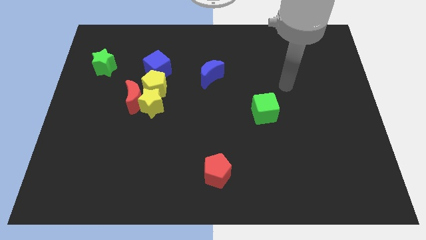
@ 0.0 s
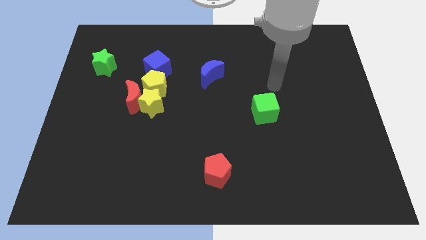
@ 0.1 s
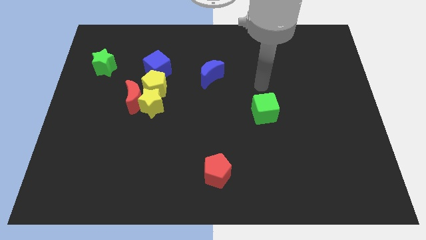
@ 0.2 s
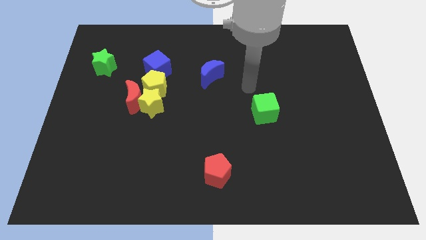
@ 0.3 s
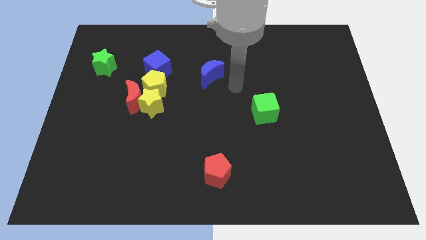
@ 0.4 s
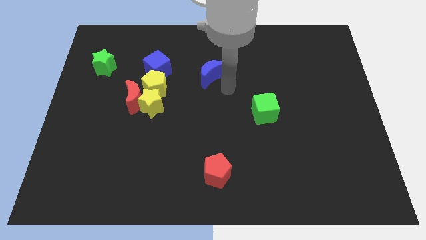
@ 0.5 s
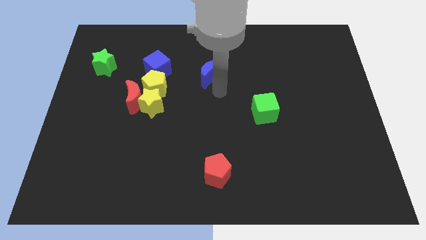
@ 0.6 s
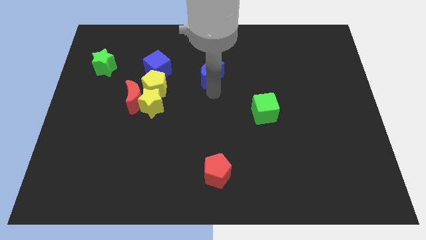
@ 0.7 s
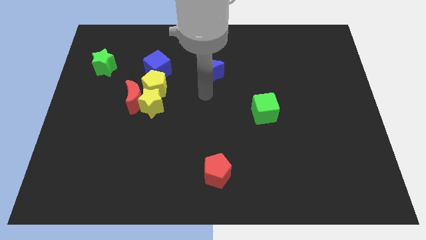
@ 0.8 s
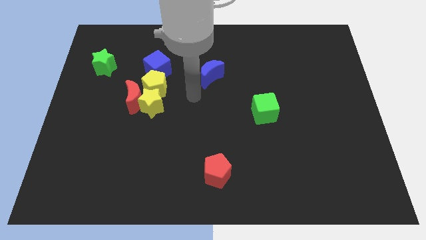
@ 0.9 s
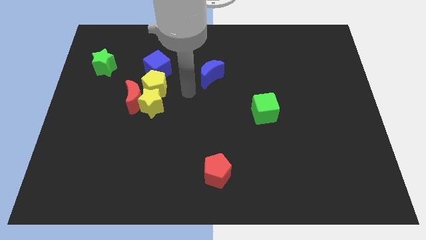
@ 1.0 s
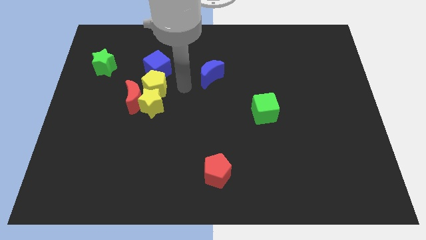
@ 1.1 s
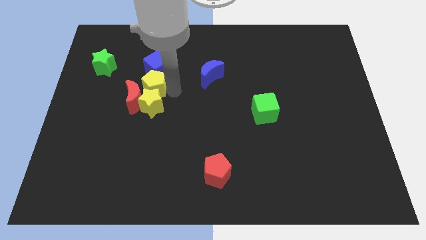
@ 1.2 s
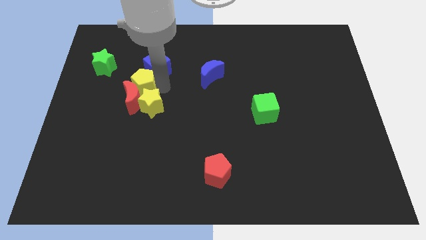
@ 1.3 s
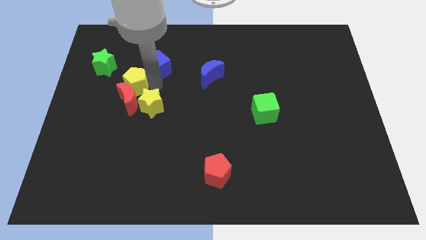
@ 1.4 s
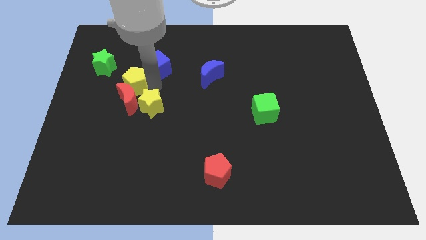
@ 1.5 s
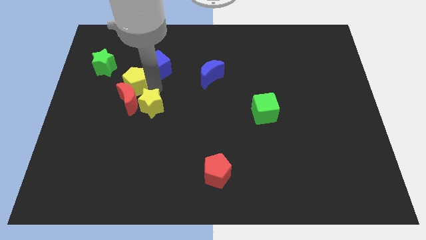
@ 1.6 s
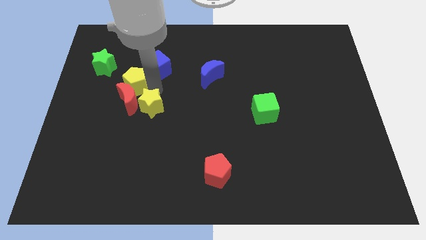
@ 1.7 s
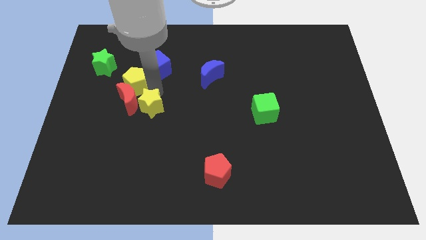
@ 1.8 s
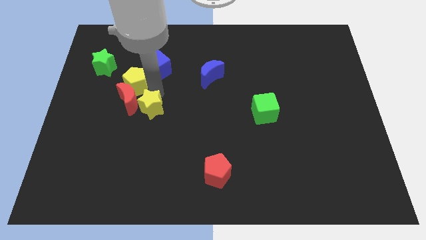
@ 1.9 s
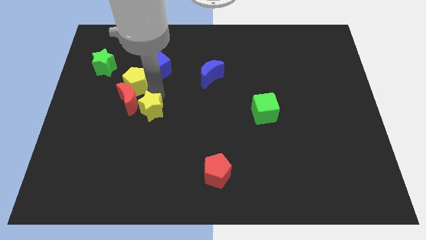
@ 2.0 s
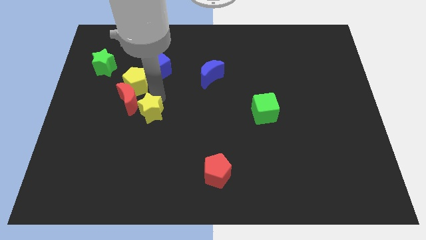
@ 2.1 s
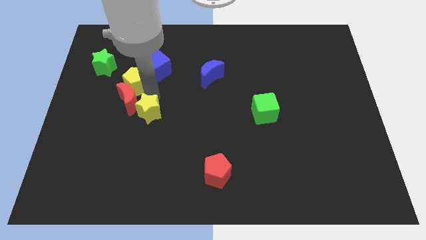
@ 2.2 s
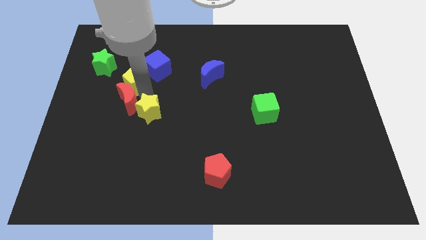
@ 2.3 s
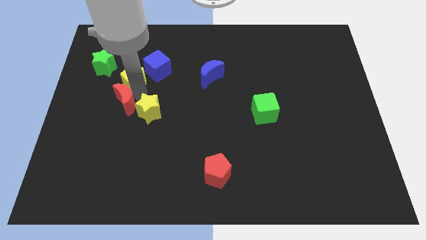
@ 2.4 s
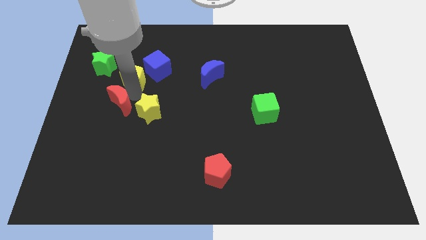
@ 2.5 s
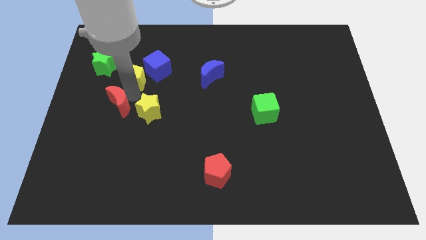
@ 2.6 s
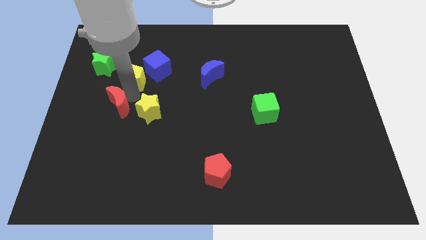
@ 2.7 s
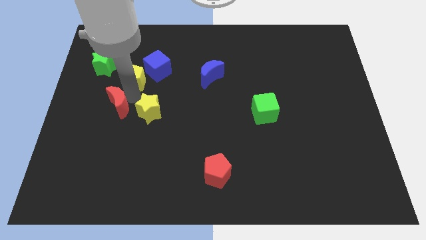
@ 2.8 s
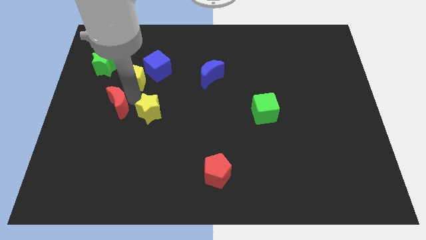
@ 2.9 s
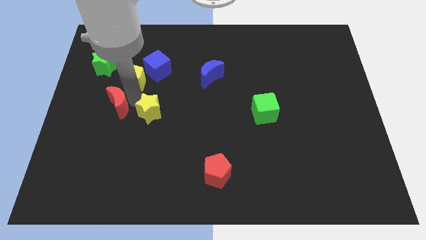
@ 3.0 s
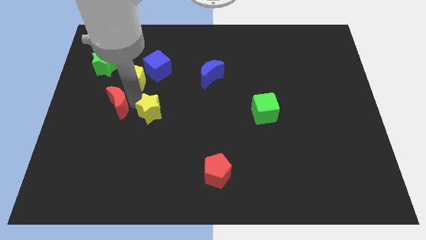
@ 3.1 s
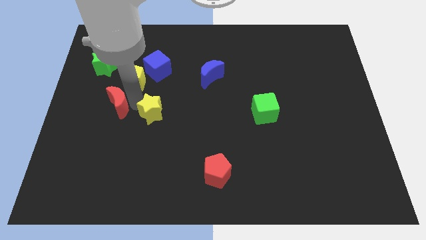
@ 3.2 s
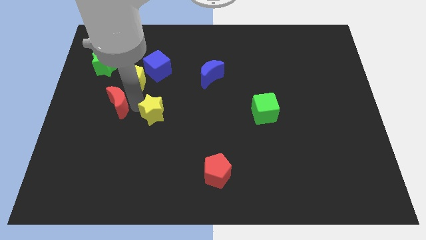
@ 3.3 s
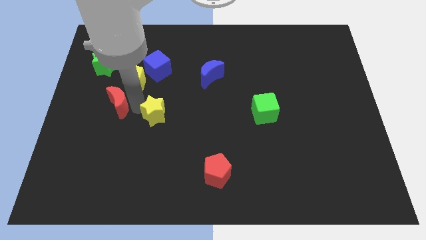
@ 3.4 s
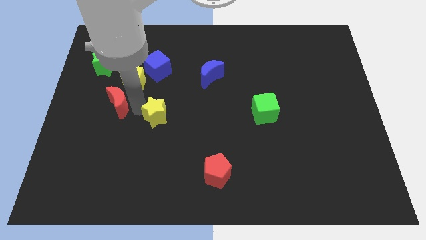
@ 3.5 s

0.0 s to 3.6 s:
pull the yellow star apart from the red moon and yellow pentagon

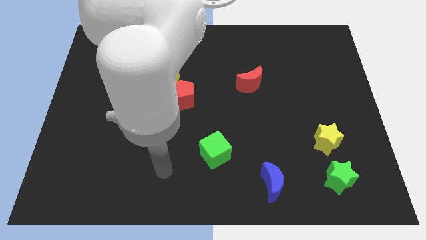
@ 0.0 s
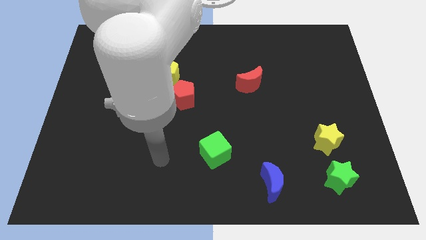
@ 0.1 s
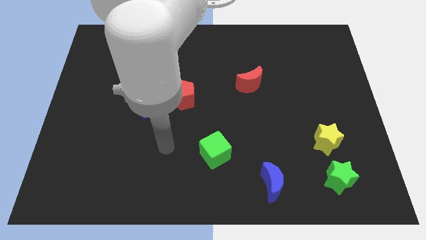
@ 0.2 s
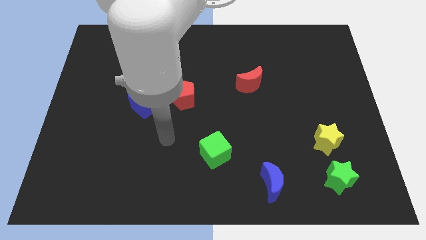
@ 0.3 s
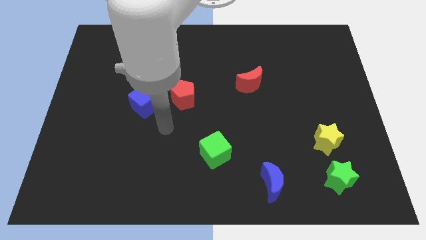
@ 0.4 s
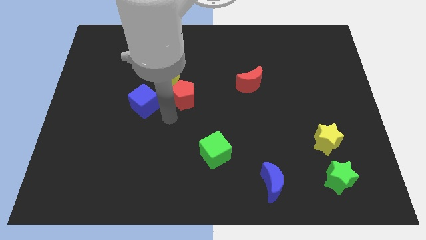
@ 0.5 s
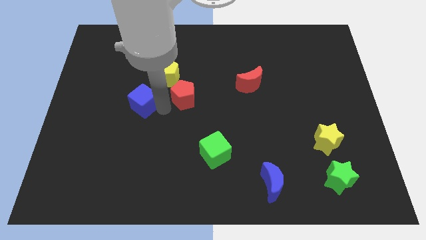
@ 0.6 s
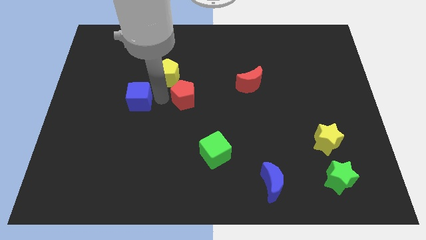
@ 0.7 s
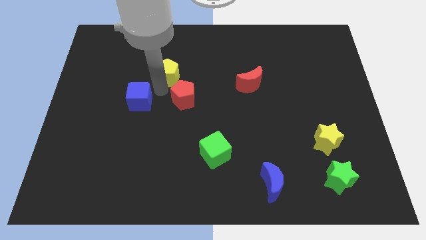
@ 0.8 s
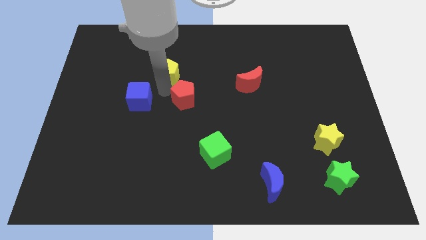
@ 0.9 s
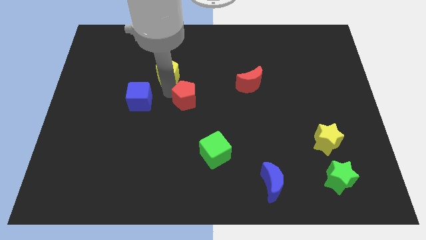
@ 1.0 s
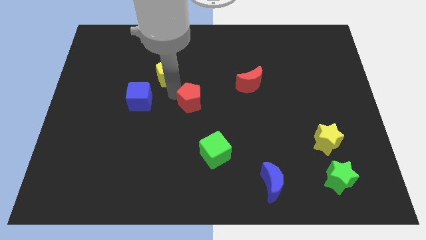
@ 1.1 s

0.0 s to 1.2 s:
separate the red pentagon from the yellow pentagon and blue cube

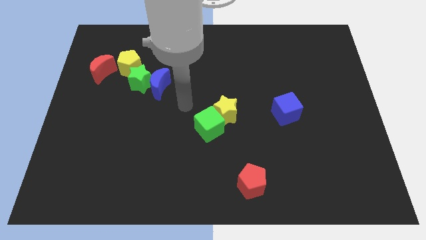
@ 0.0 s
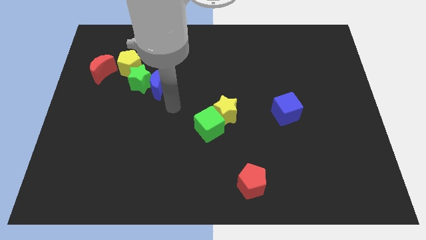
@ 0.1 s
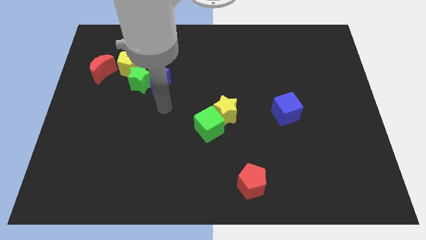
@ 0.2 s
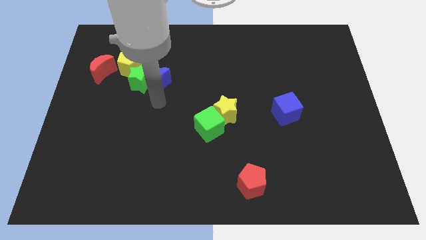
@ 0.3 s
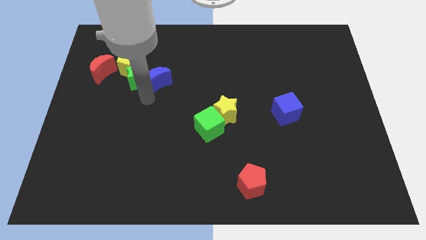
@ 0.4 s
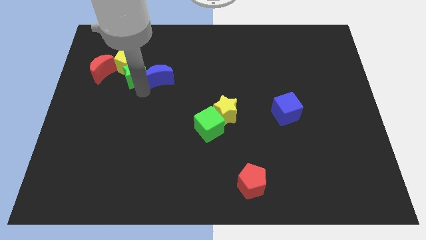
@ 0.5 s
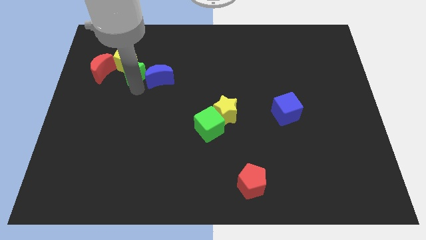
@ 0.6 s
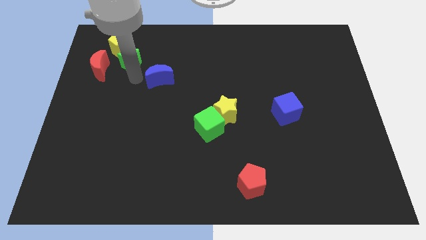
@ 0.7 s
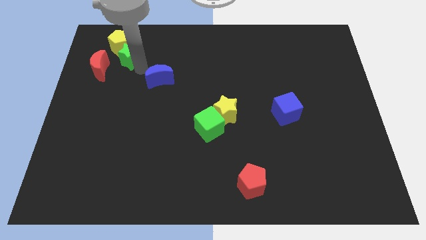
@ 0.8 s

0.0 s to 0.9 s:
separate the blue moon from the green star

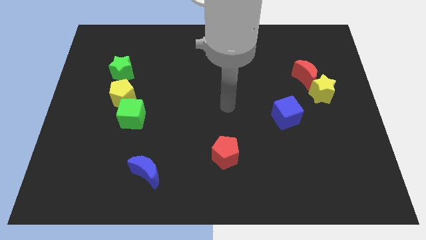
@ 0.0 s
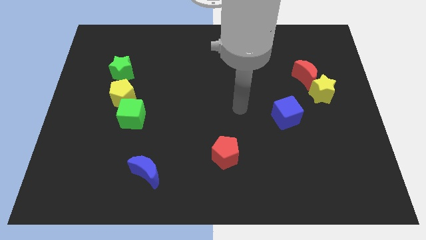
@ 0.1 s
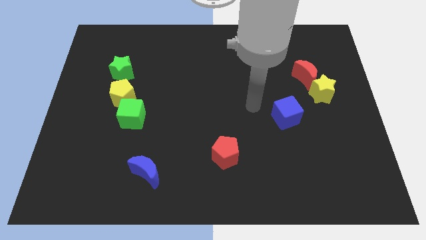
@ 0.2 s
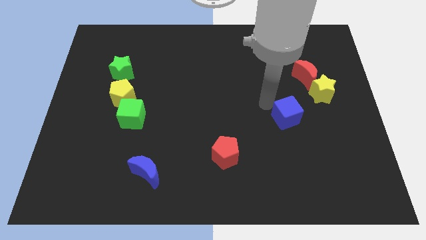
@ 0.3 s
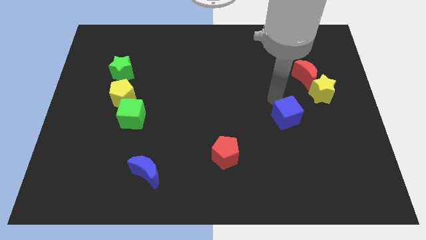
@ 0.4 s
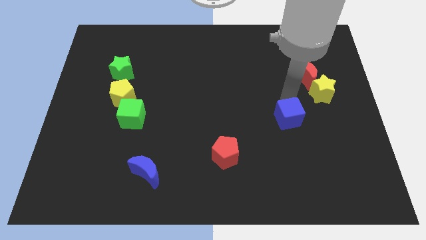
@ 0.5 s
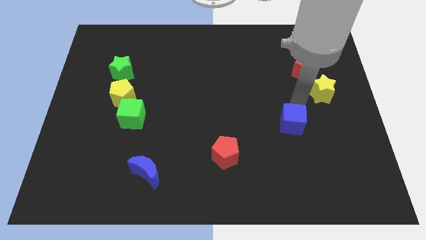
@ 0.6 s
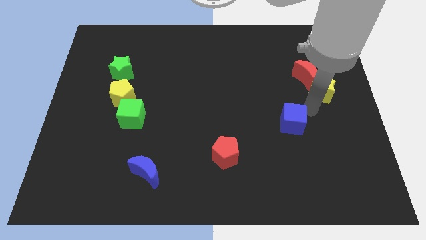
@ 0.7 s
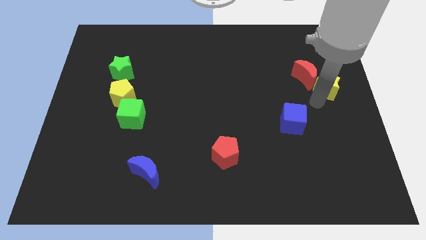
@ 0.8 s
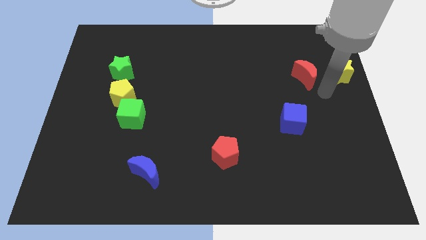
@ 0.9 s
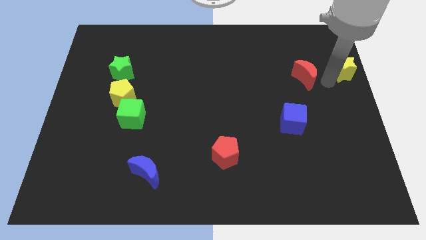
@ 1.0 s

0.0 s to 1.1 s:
move the red moon away from the yellow star

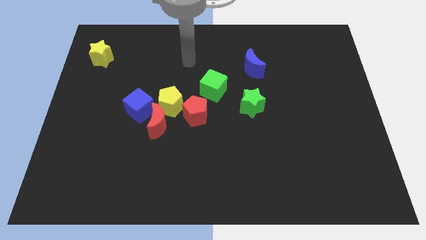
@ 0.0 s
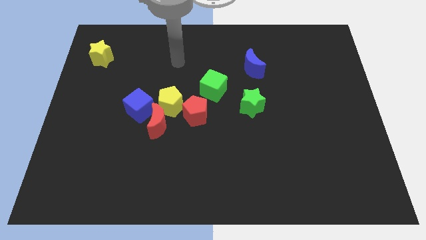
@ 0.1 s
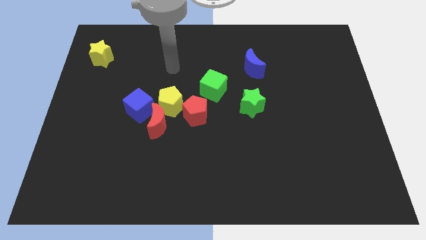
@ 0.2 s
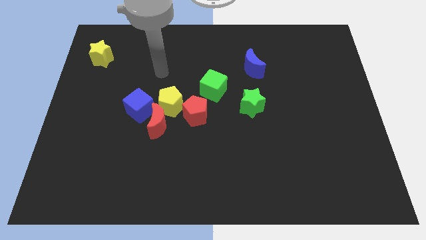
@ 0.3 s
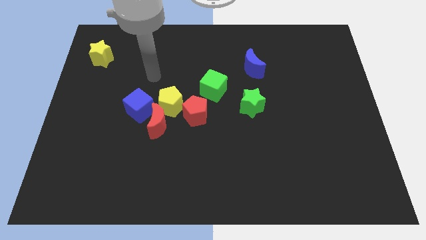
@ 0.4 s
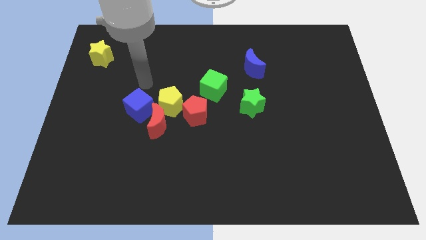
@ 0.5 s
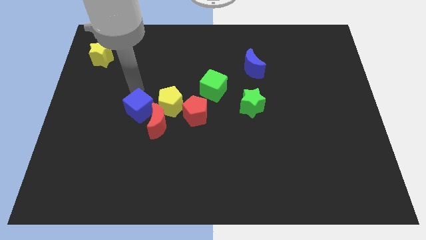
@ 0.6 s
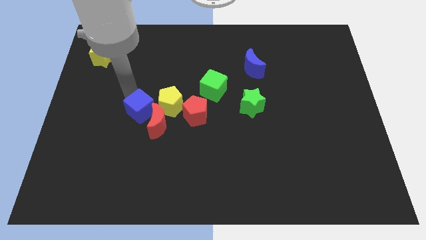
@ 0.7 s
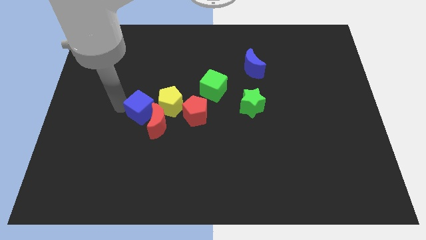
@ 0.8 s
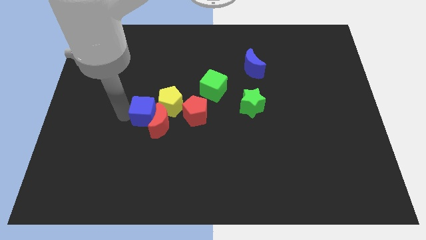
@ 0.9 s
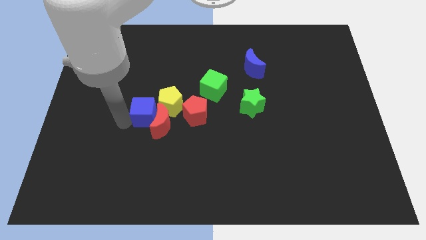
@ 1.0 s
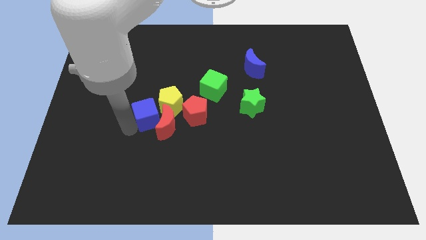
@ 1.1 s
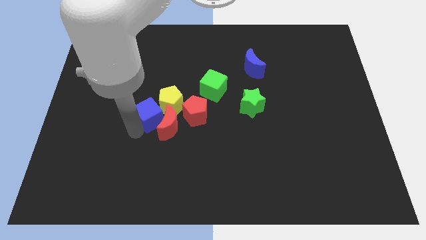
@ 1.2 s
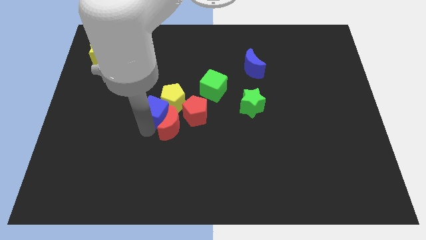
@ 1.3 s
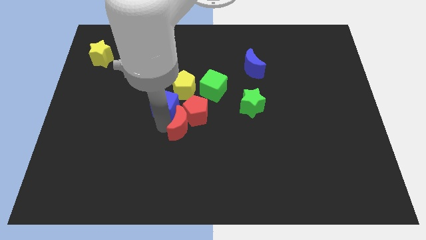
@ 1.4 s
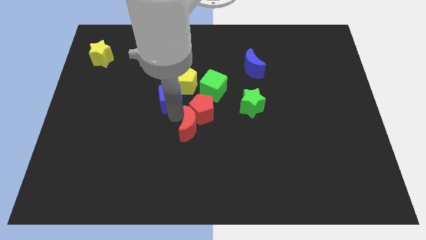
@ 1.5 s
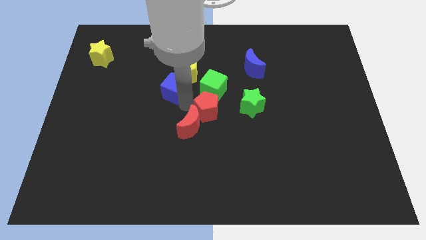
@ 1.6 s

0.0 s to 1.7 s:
move the yellow pentagon away from the group of blocks

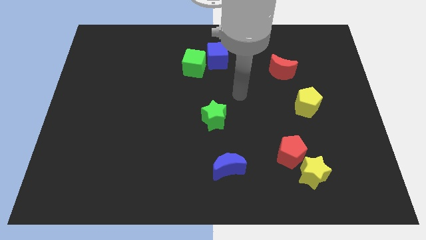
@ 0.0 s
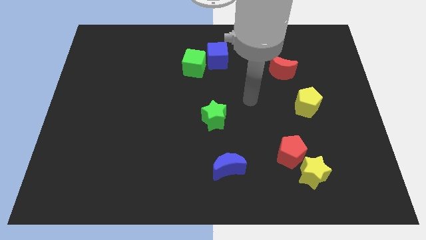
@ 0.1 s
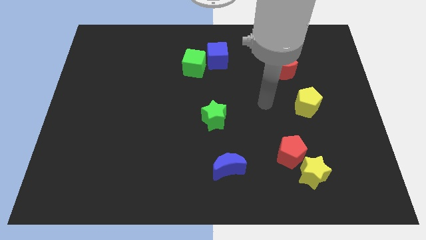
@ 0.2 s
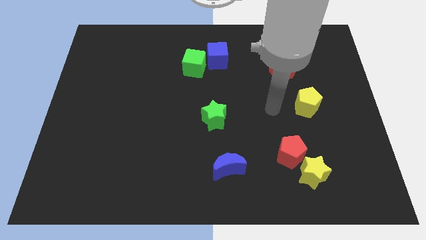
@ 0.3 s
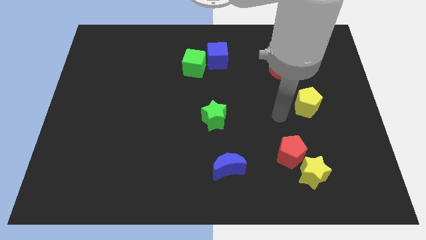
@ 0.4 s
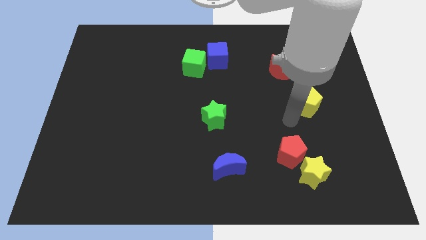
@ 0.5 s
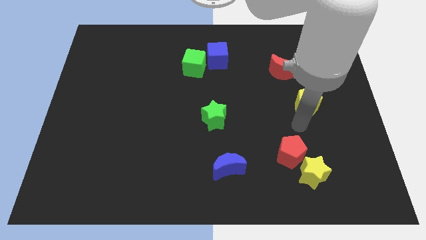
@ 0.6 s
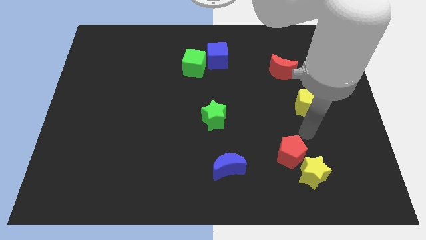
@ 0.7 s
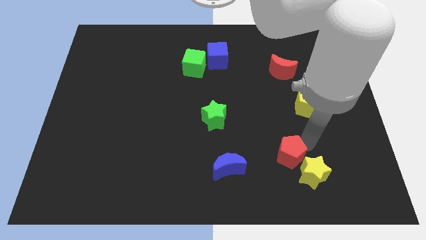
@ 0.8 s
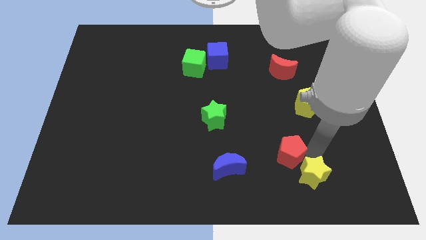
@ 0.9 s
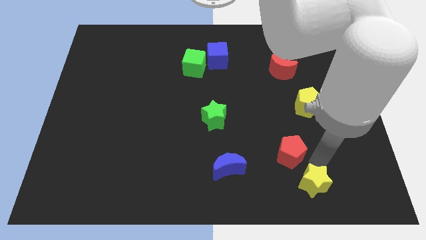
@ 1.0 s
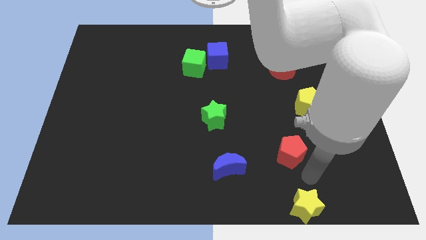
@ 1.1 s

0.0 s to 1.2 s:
move the red pentagon away from the yellow star
